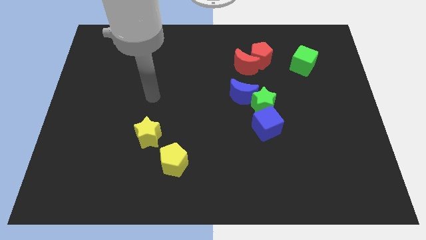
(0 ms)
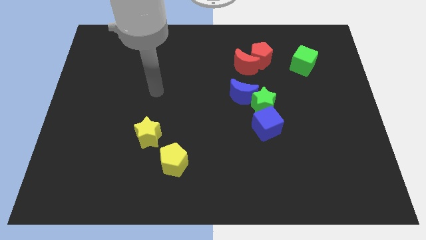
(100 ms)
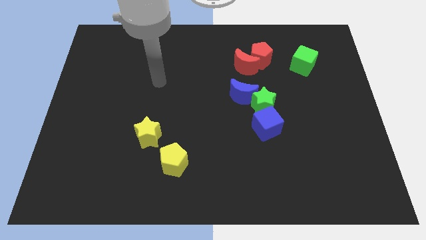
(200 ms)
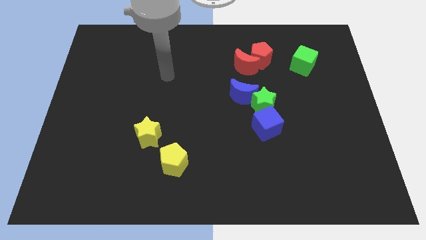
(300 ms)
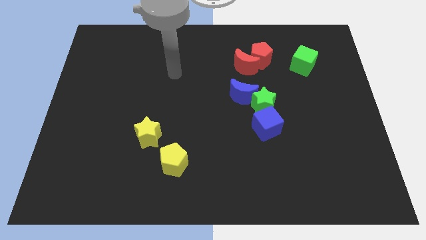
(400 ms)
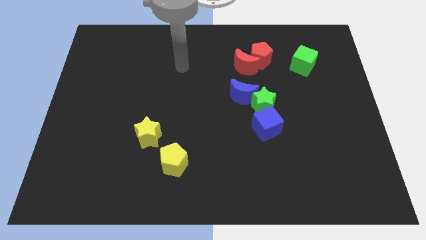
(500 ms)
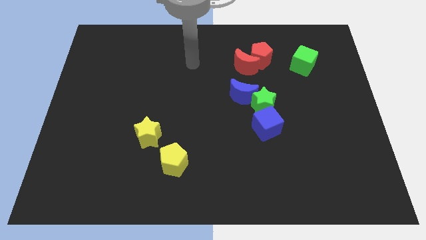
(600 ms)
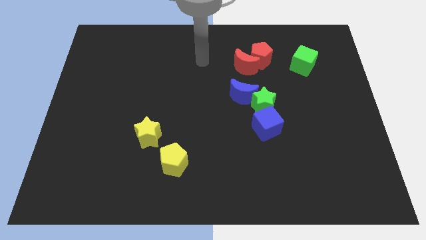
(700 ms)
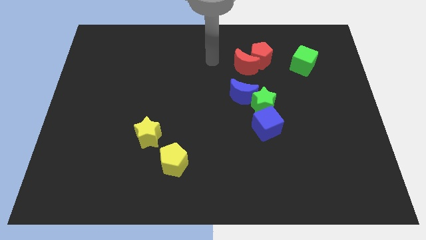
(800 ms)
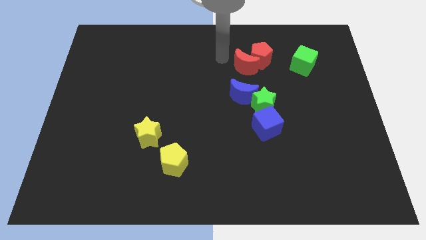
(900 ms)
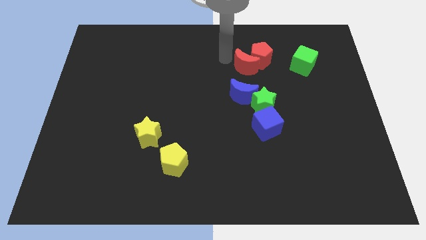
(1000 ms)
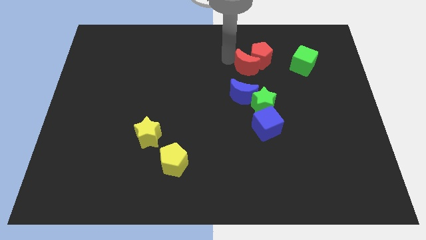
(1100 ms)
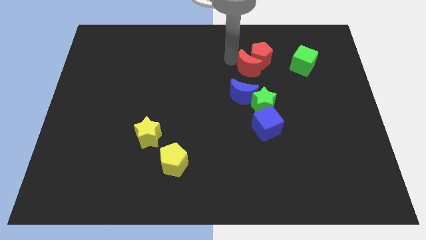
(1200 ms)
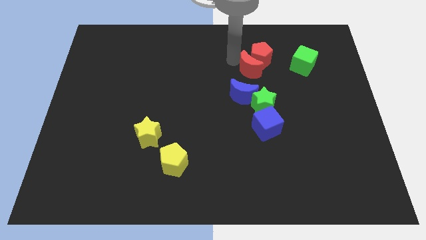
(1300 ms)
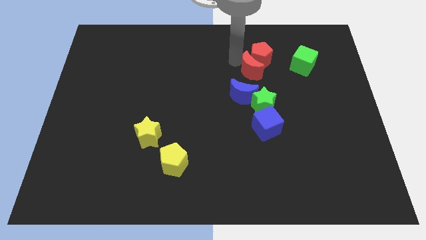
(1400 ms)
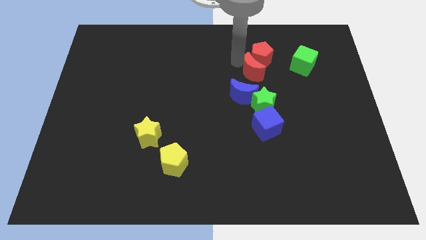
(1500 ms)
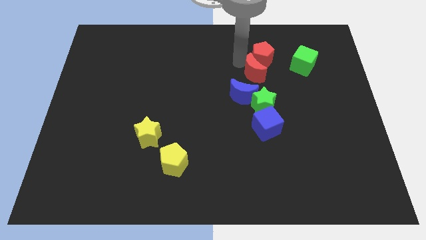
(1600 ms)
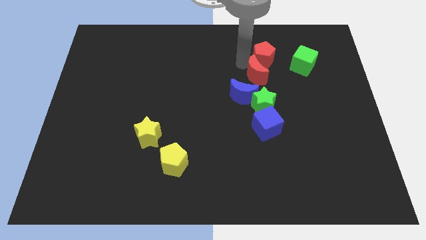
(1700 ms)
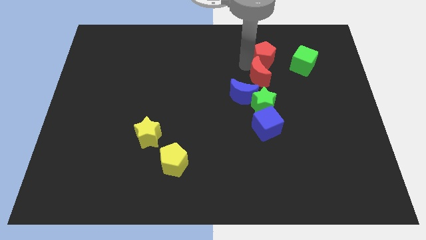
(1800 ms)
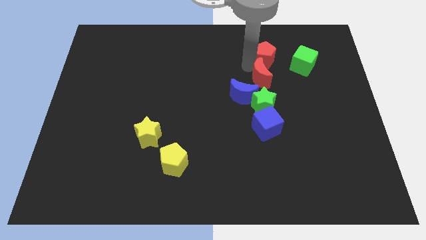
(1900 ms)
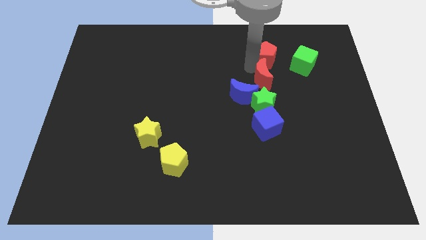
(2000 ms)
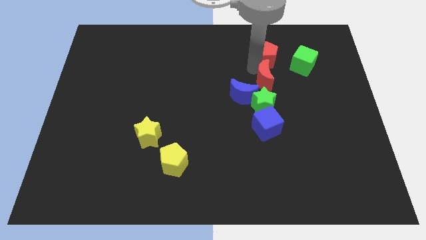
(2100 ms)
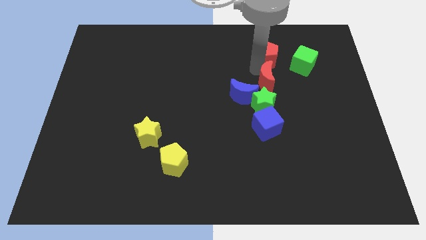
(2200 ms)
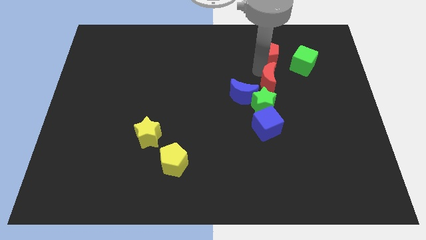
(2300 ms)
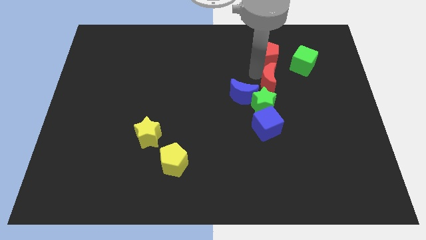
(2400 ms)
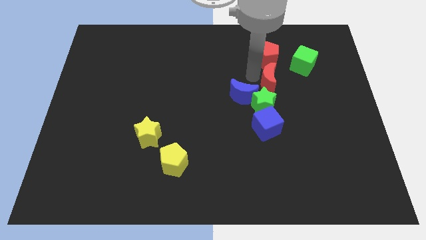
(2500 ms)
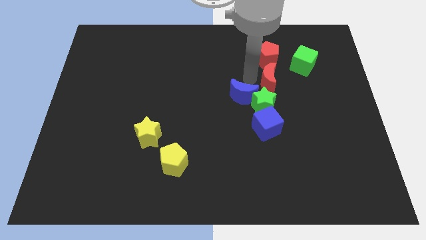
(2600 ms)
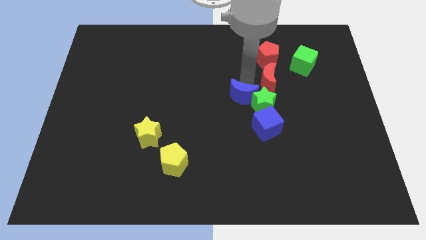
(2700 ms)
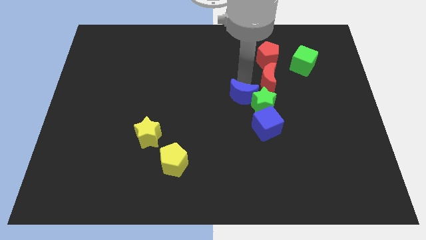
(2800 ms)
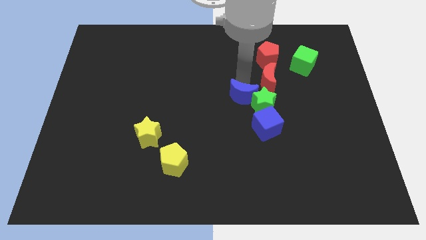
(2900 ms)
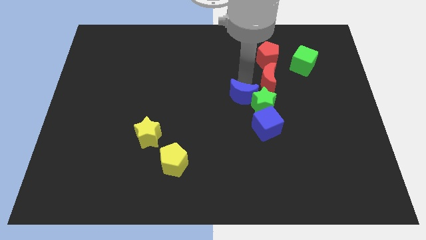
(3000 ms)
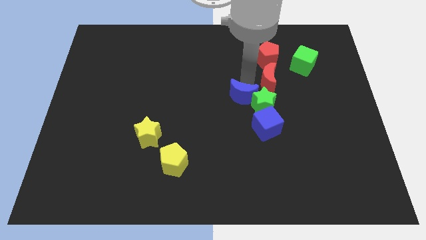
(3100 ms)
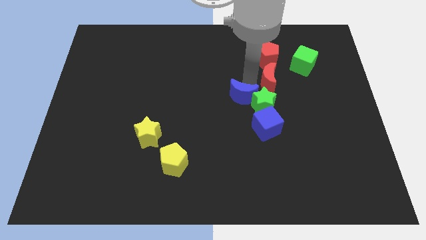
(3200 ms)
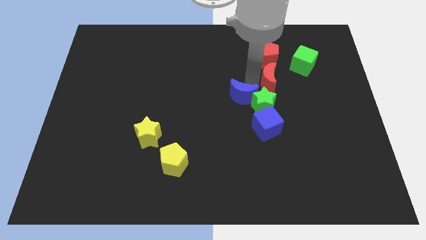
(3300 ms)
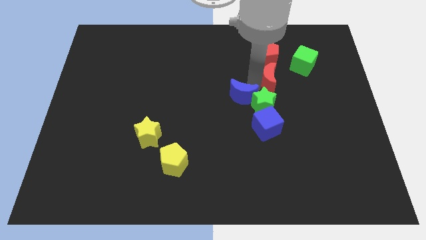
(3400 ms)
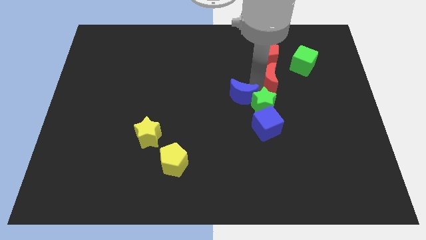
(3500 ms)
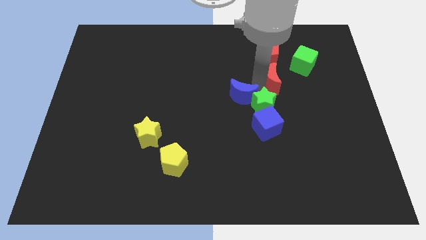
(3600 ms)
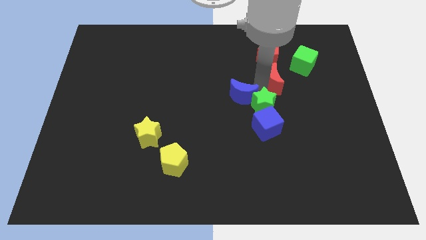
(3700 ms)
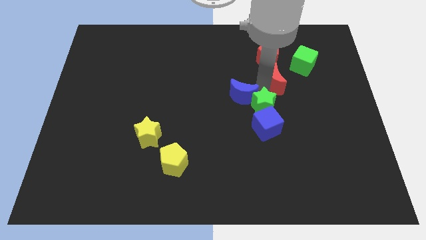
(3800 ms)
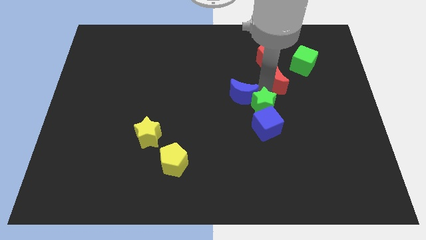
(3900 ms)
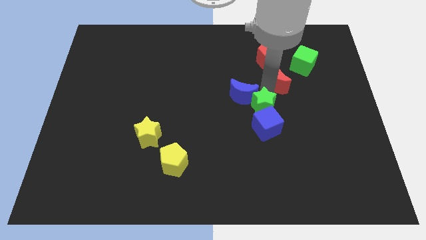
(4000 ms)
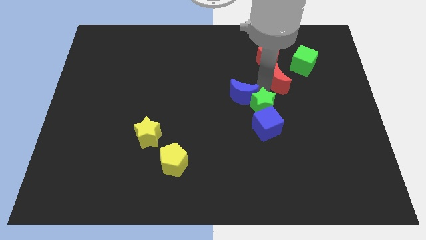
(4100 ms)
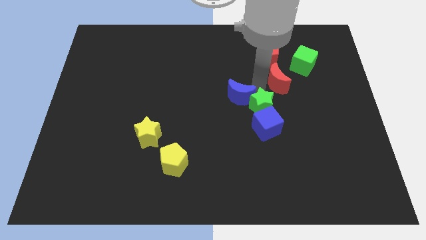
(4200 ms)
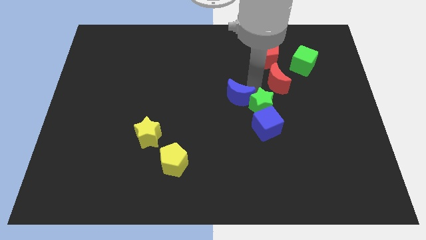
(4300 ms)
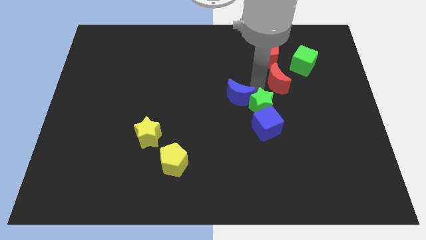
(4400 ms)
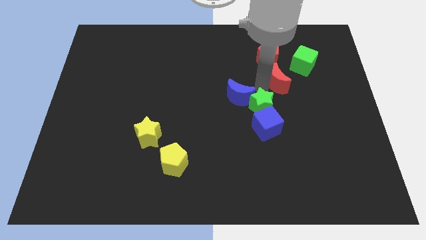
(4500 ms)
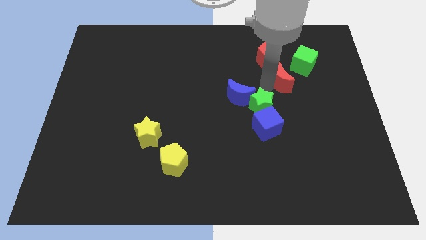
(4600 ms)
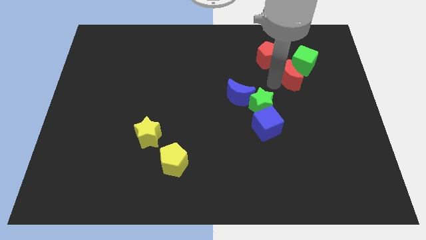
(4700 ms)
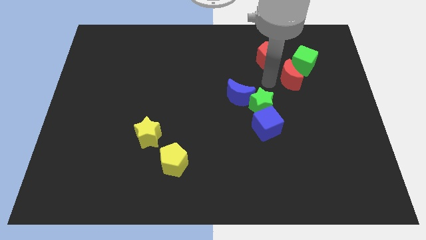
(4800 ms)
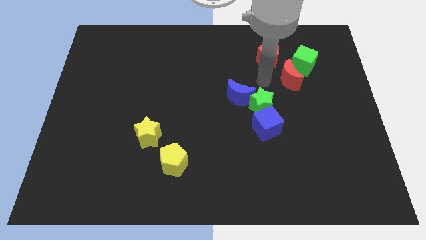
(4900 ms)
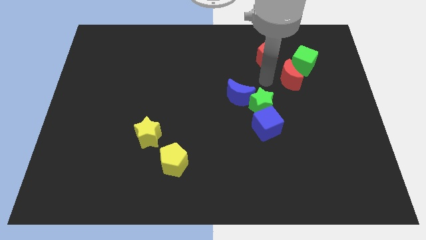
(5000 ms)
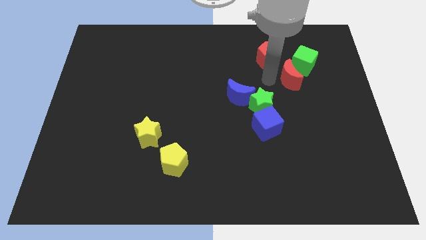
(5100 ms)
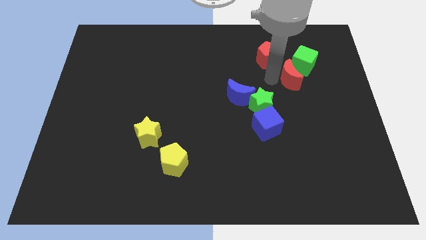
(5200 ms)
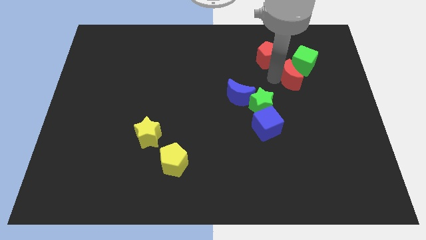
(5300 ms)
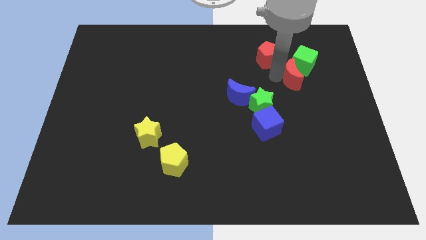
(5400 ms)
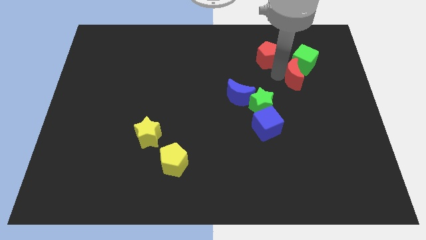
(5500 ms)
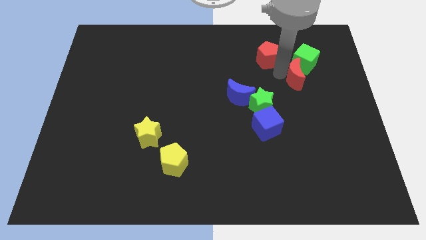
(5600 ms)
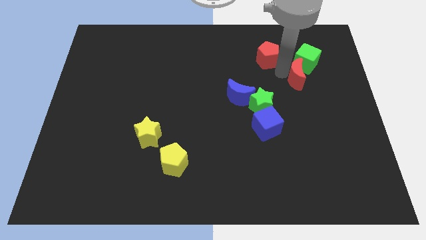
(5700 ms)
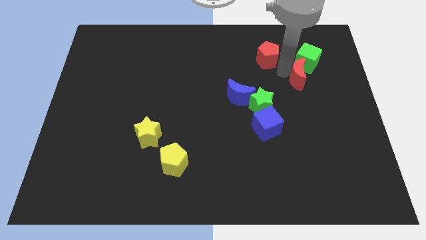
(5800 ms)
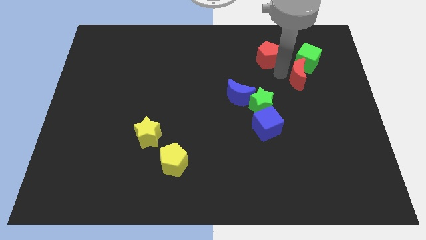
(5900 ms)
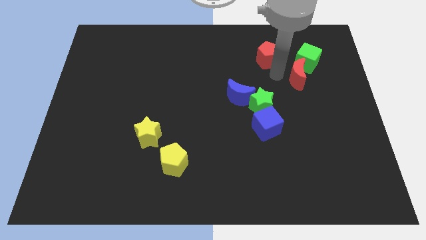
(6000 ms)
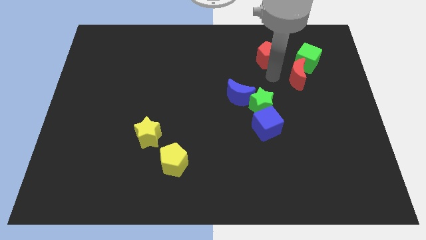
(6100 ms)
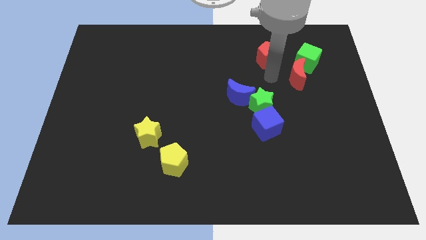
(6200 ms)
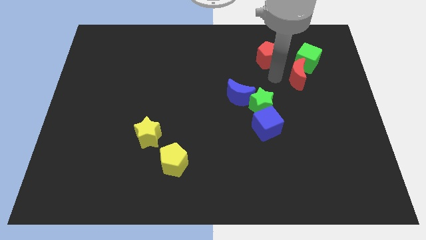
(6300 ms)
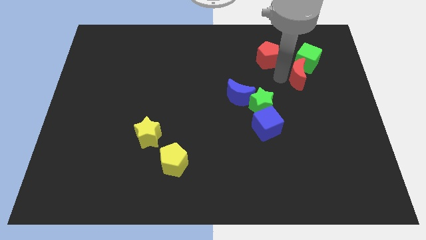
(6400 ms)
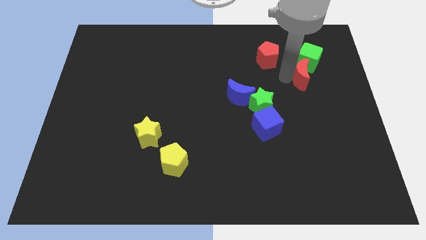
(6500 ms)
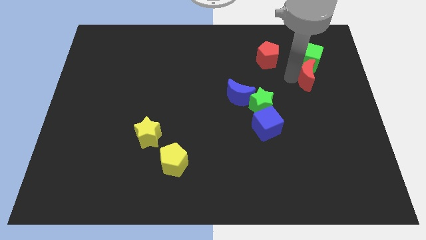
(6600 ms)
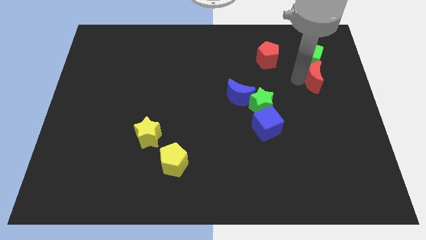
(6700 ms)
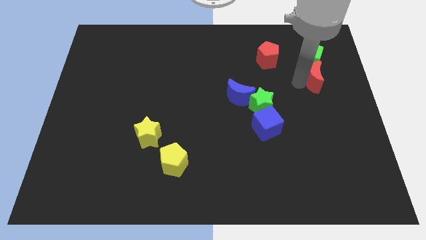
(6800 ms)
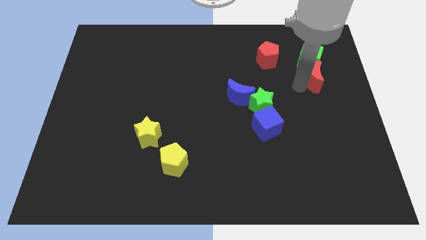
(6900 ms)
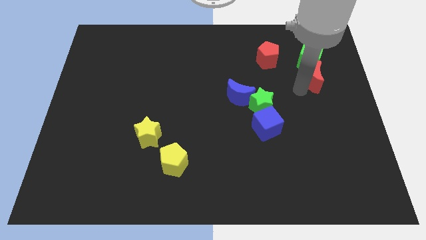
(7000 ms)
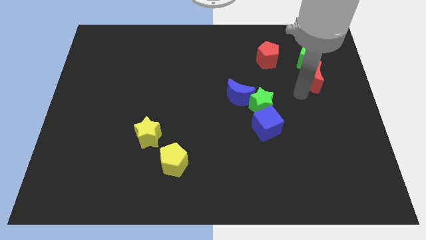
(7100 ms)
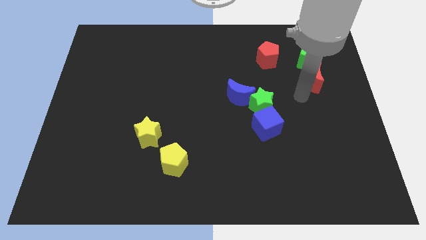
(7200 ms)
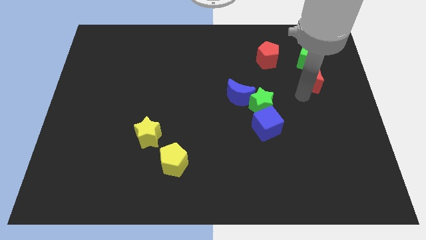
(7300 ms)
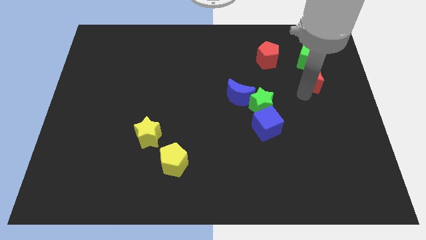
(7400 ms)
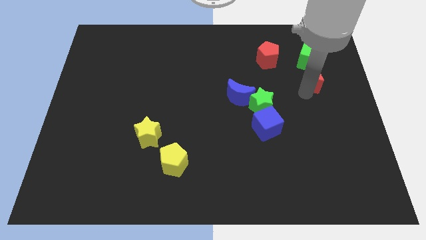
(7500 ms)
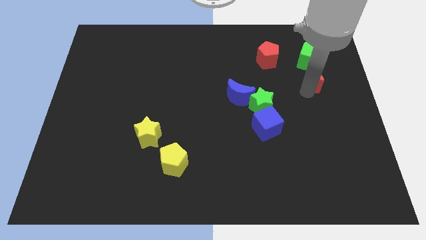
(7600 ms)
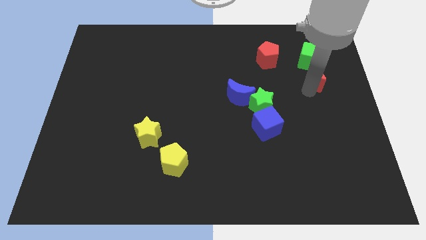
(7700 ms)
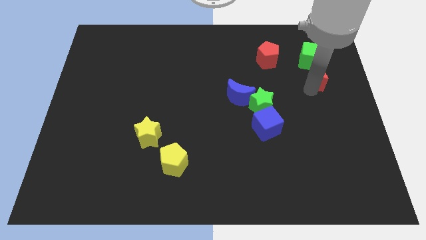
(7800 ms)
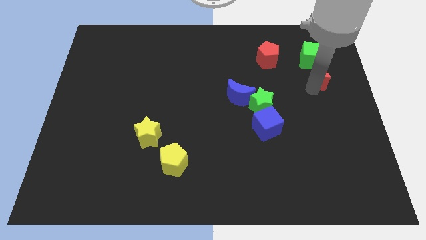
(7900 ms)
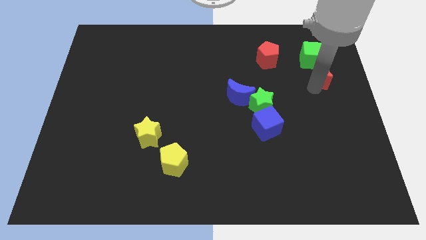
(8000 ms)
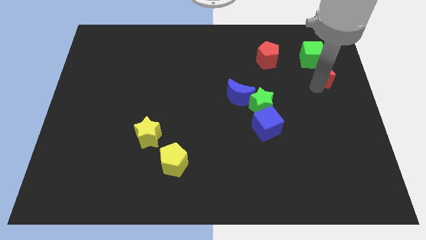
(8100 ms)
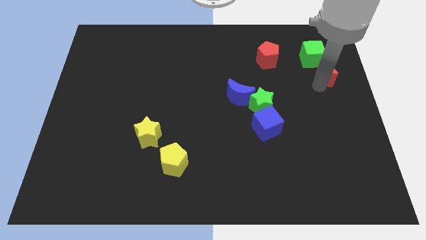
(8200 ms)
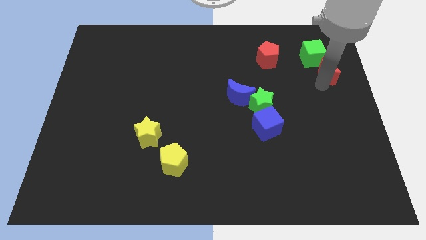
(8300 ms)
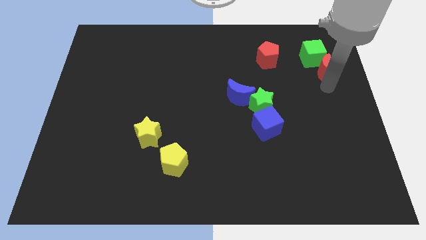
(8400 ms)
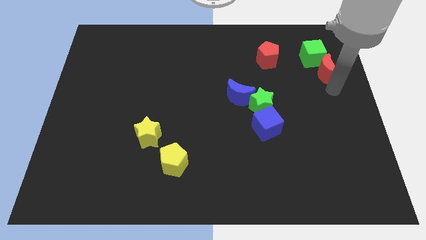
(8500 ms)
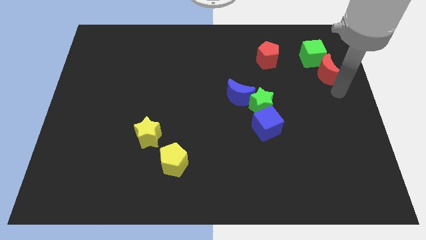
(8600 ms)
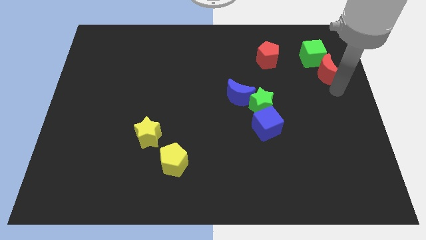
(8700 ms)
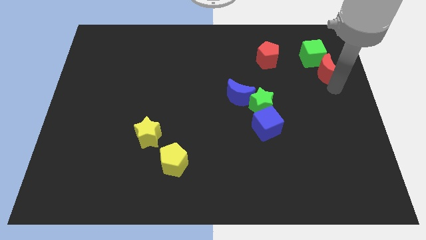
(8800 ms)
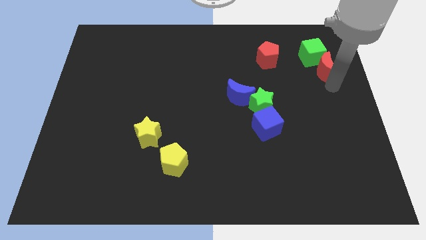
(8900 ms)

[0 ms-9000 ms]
put the red moon just right of the red pentagon
